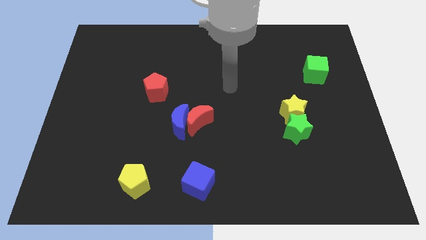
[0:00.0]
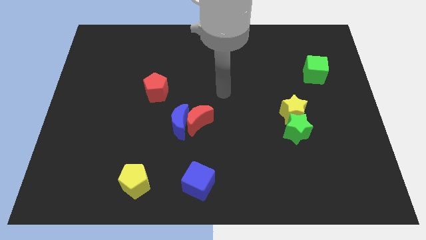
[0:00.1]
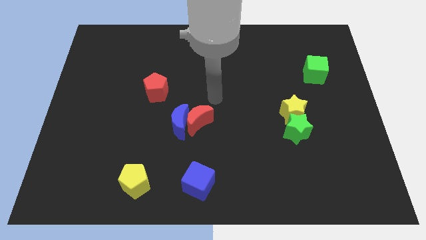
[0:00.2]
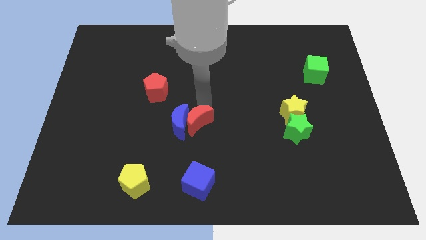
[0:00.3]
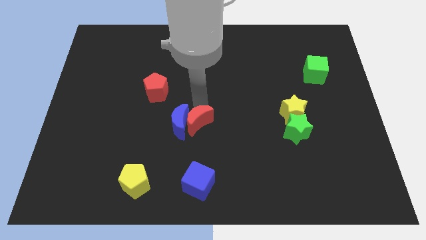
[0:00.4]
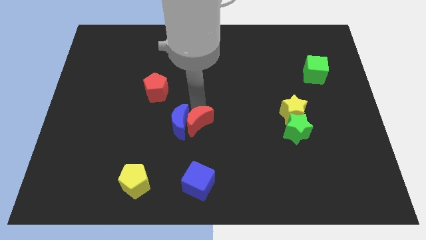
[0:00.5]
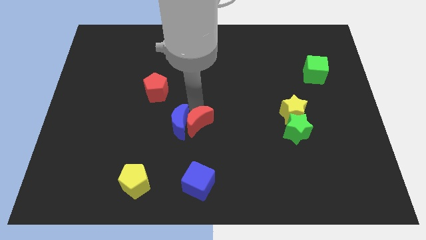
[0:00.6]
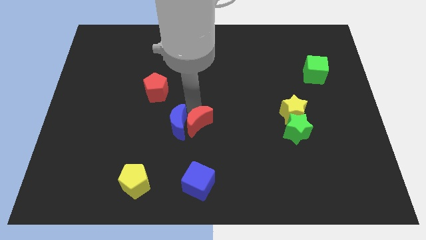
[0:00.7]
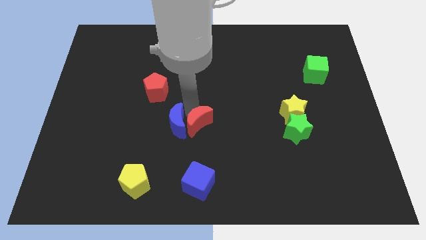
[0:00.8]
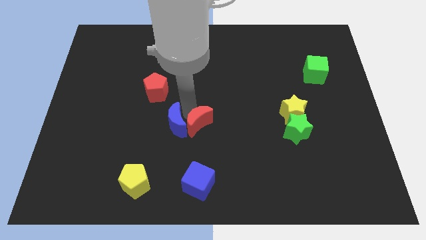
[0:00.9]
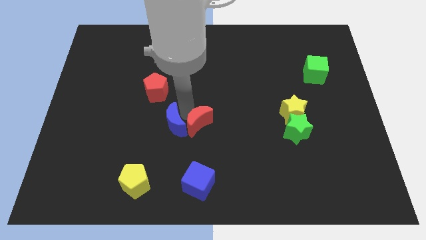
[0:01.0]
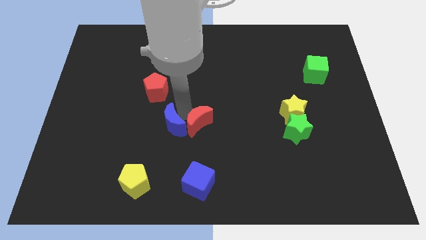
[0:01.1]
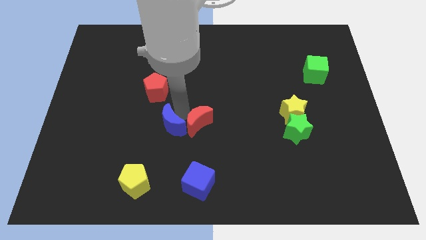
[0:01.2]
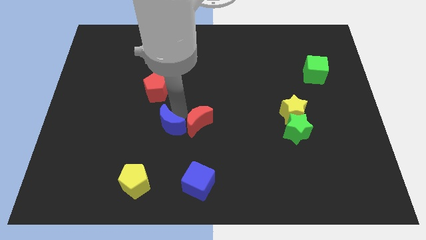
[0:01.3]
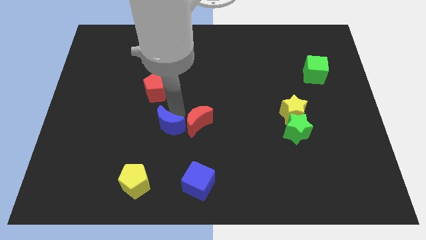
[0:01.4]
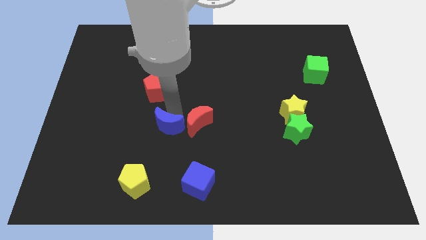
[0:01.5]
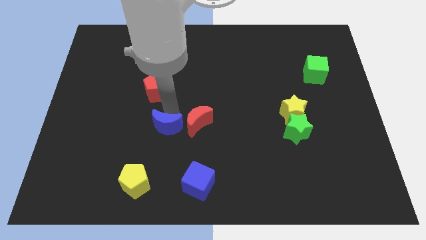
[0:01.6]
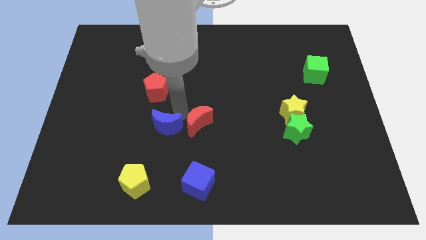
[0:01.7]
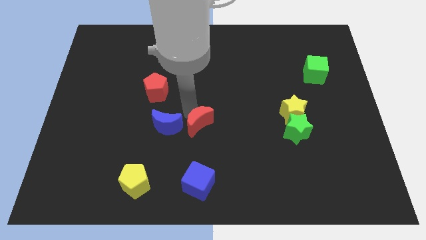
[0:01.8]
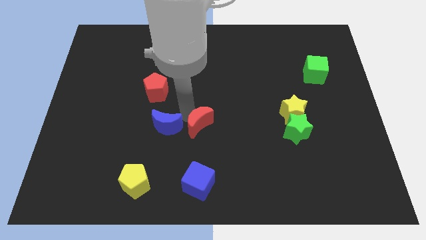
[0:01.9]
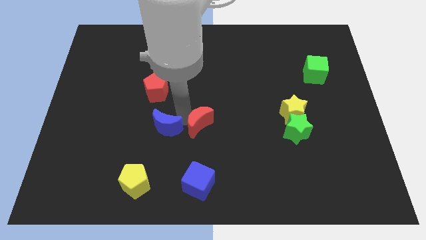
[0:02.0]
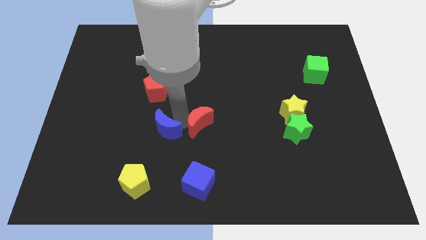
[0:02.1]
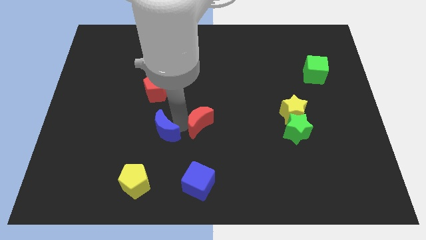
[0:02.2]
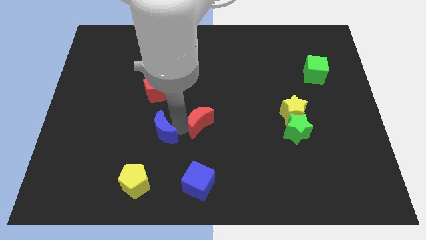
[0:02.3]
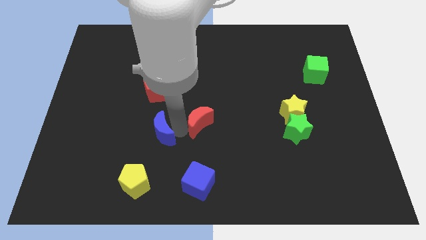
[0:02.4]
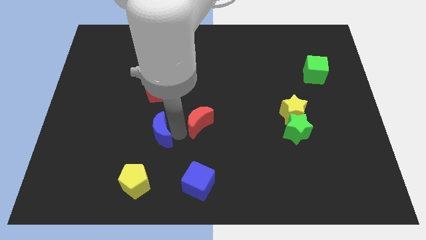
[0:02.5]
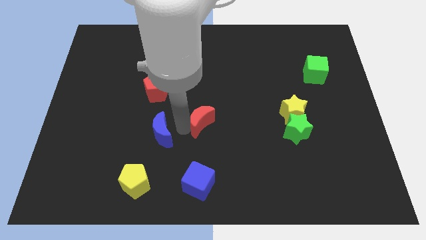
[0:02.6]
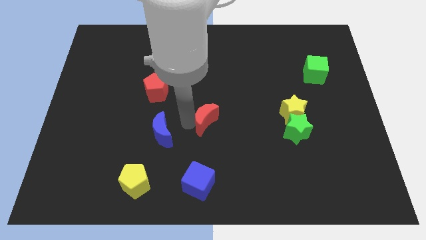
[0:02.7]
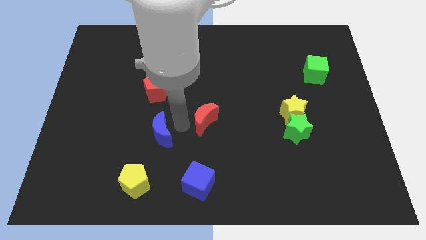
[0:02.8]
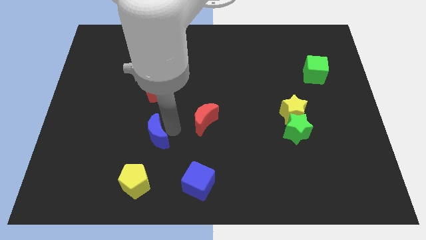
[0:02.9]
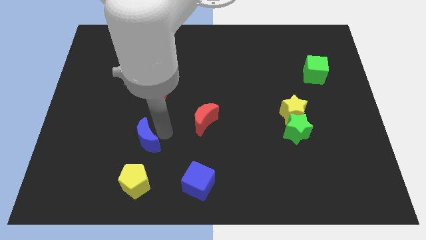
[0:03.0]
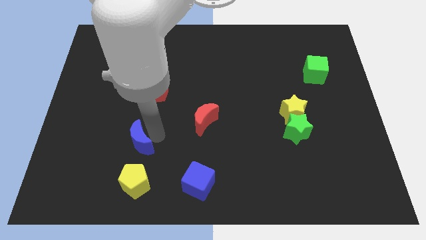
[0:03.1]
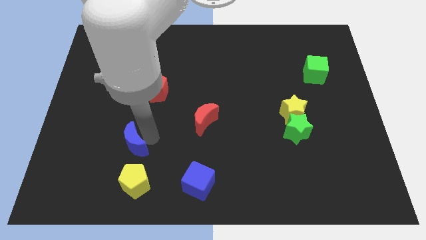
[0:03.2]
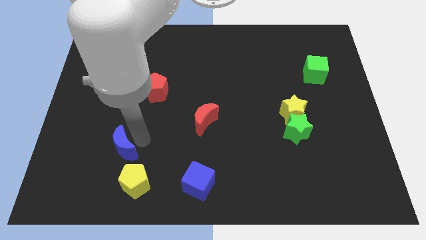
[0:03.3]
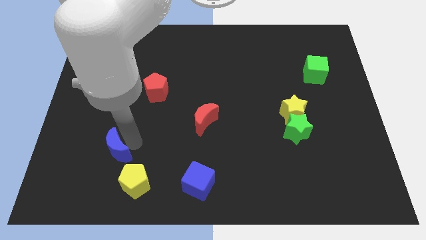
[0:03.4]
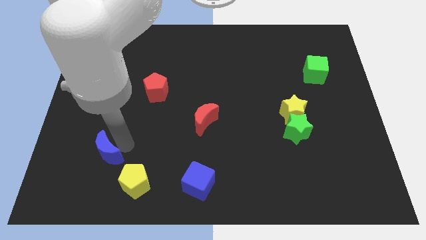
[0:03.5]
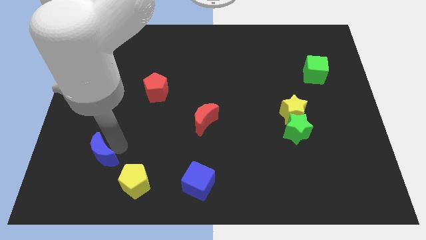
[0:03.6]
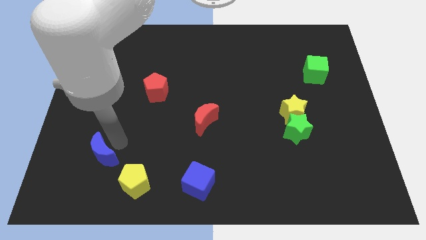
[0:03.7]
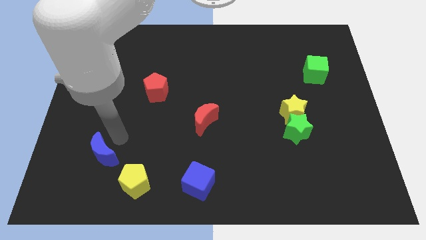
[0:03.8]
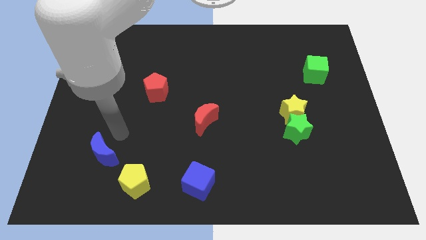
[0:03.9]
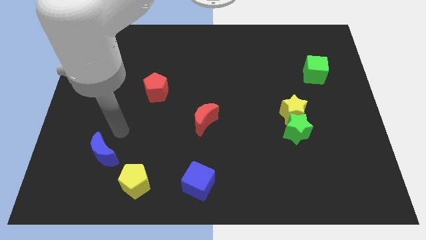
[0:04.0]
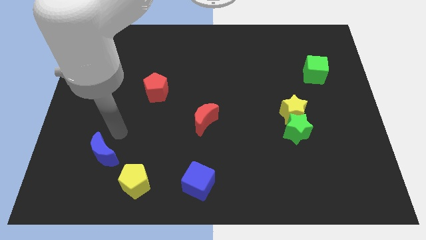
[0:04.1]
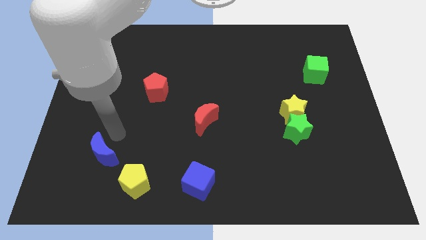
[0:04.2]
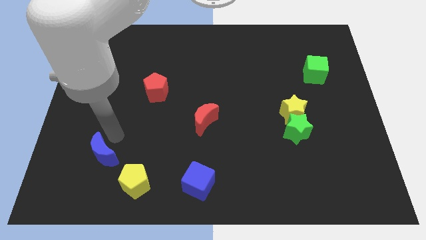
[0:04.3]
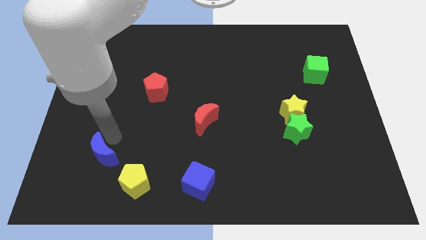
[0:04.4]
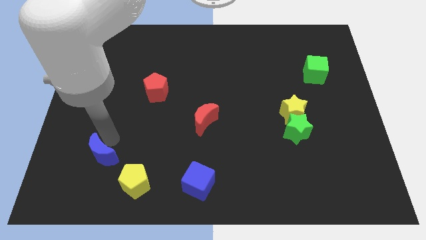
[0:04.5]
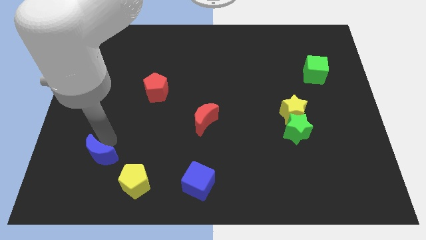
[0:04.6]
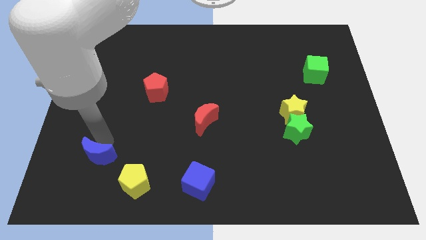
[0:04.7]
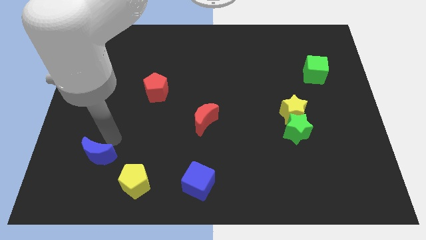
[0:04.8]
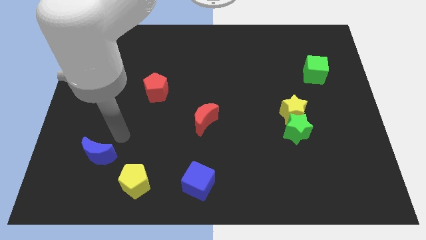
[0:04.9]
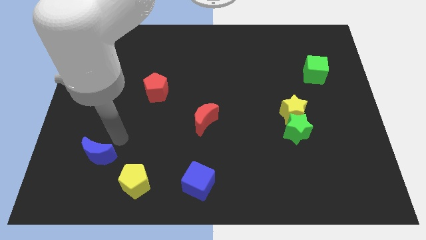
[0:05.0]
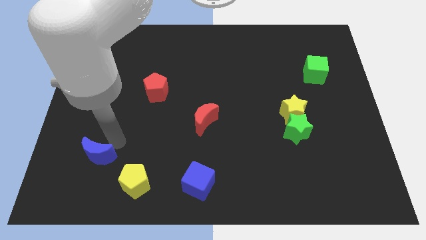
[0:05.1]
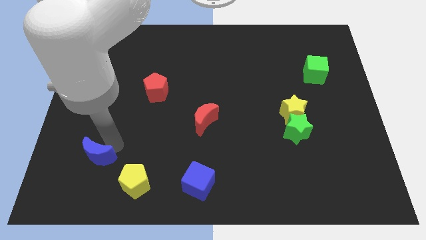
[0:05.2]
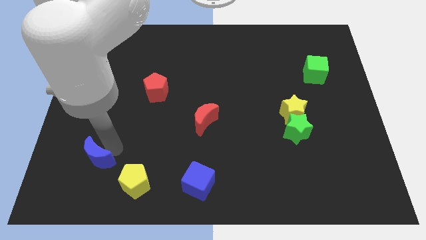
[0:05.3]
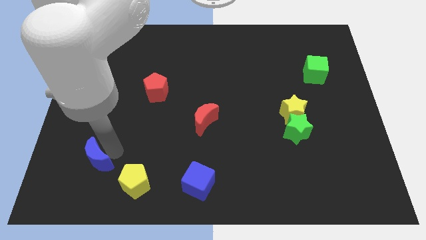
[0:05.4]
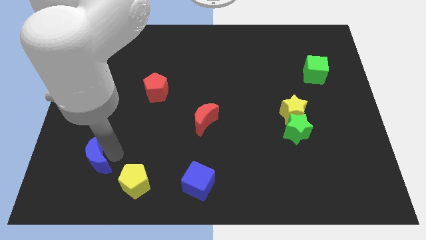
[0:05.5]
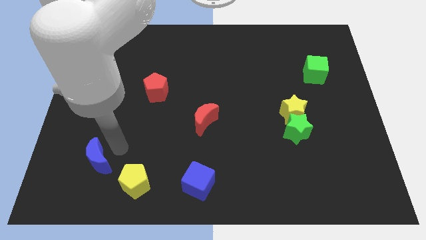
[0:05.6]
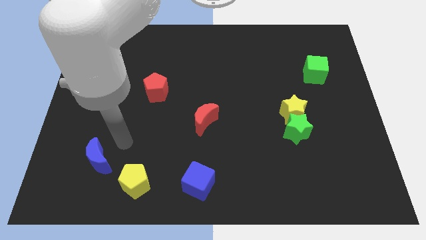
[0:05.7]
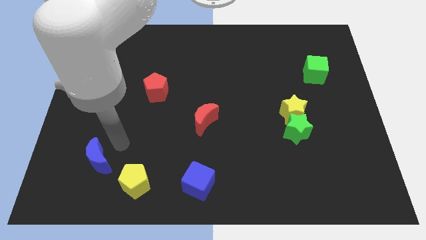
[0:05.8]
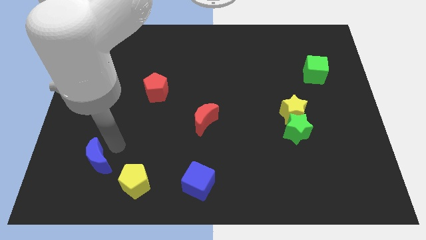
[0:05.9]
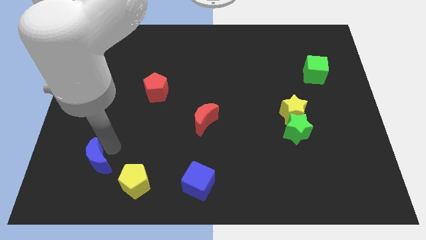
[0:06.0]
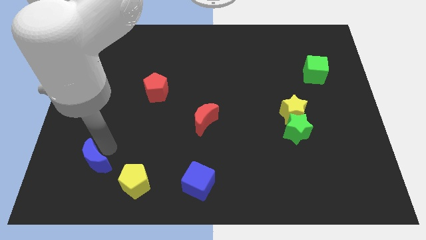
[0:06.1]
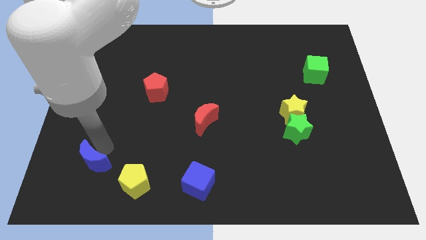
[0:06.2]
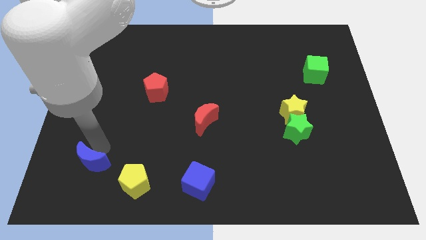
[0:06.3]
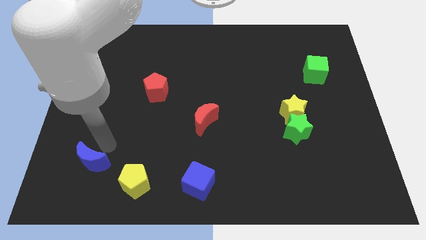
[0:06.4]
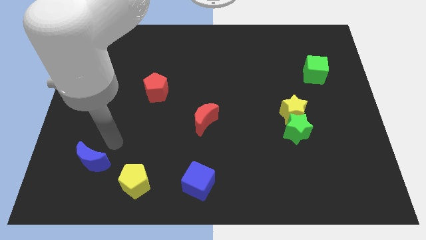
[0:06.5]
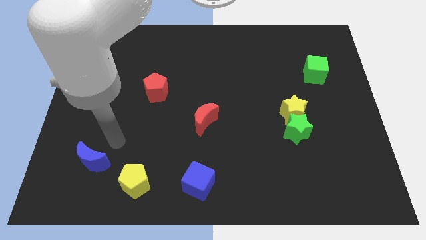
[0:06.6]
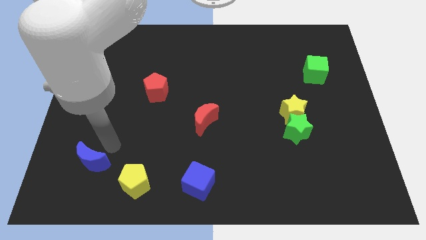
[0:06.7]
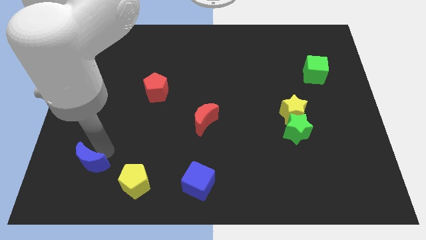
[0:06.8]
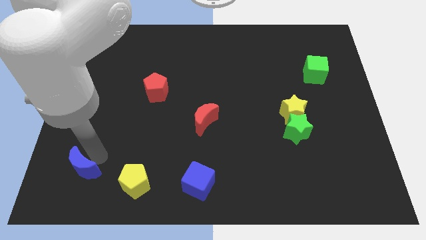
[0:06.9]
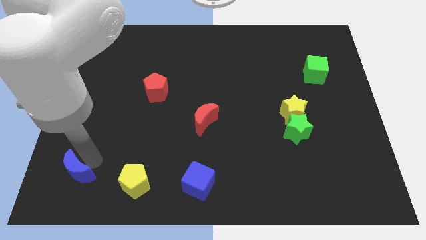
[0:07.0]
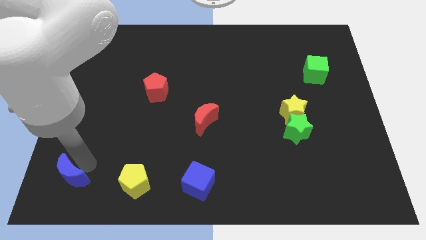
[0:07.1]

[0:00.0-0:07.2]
move the blue moon to the bottom left corner
